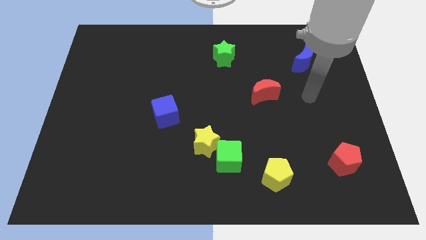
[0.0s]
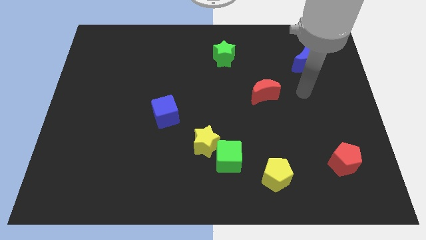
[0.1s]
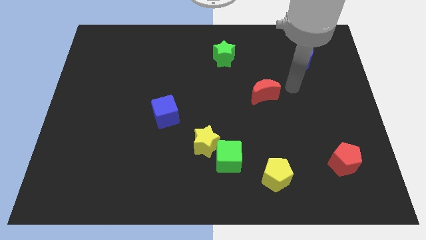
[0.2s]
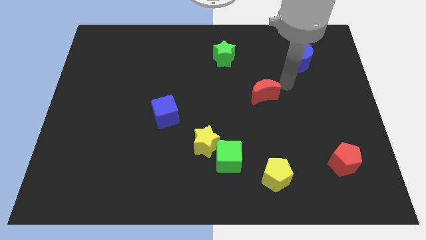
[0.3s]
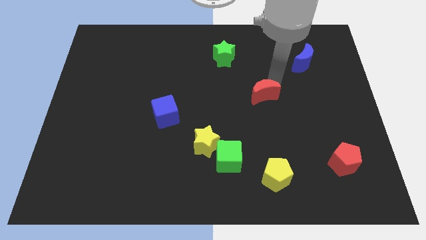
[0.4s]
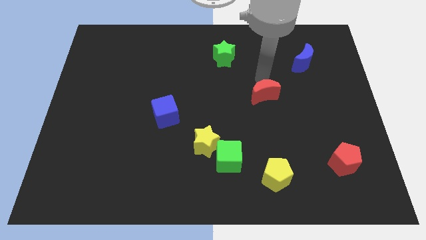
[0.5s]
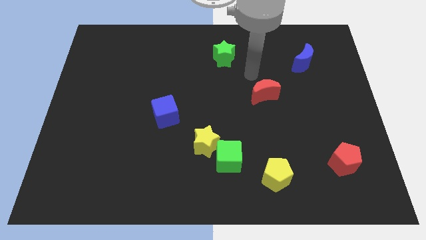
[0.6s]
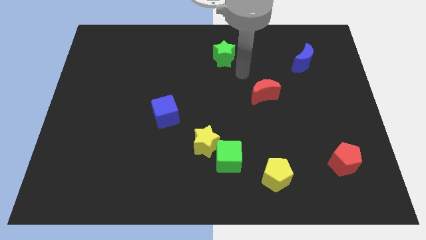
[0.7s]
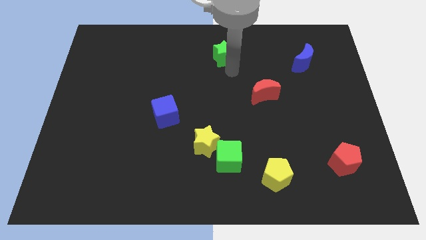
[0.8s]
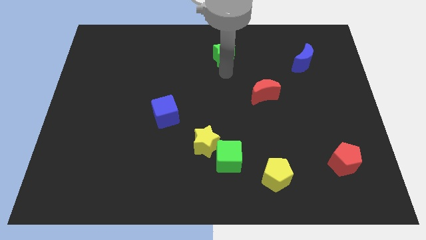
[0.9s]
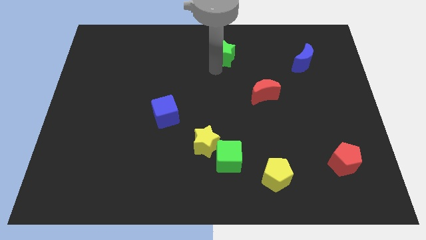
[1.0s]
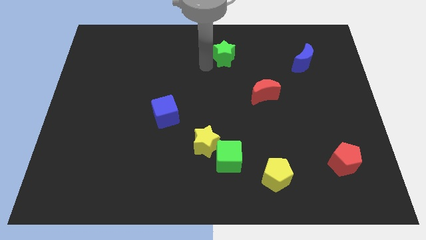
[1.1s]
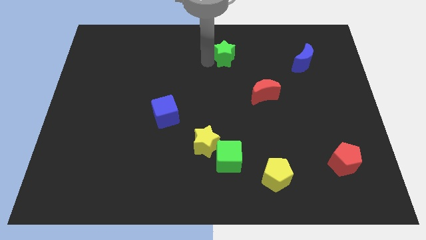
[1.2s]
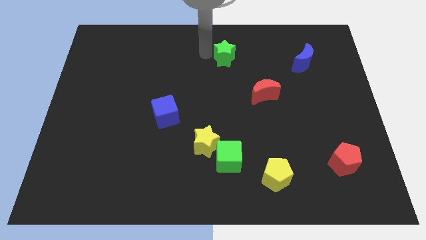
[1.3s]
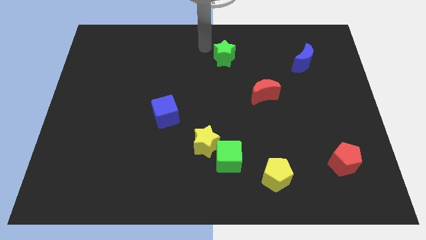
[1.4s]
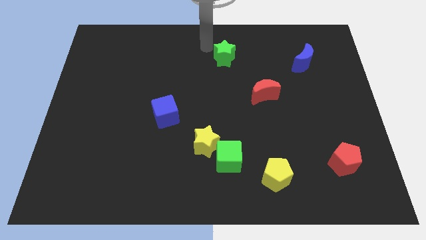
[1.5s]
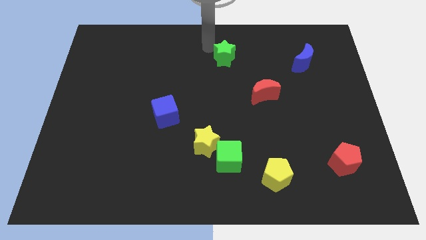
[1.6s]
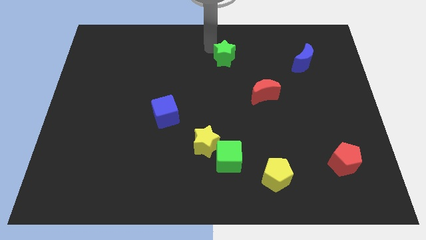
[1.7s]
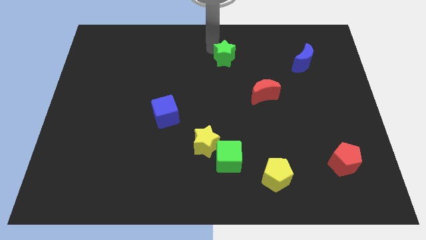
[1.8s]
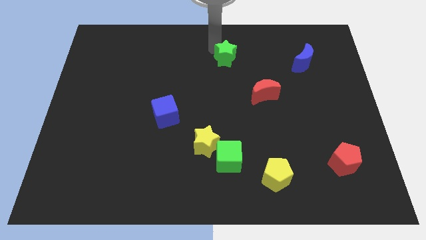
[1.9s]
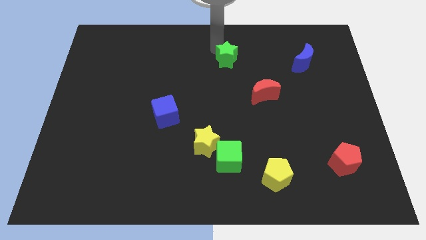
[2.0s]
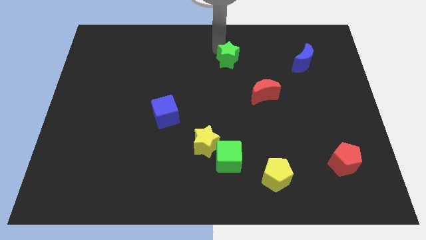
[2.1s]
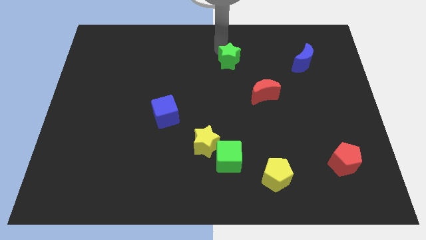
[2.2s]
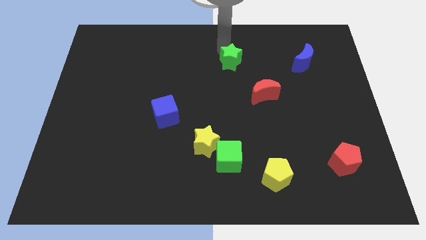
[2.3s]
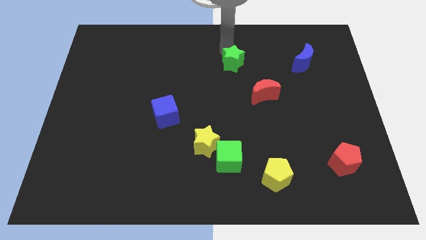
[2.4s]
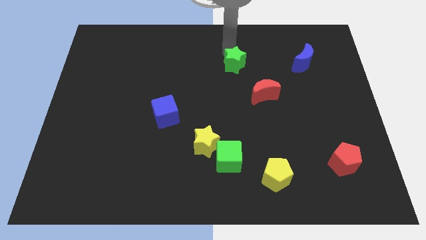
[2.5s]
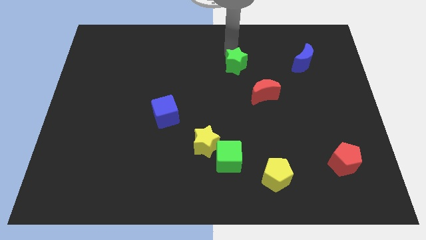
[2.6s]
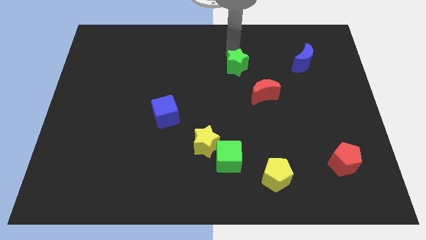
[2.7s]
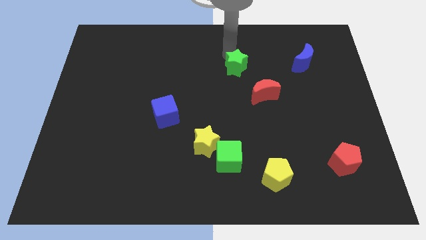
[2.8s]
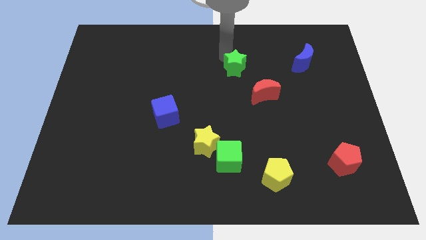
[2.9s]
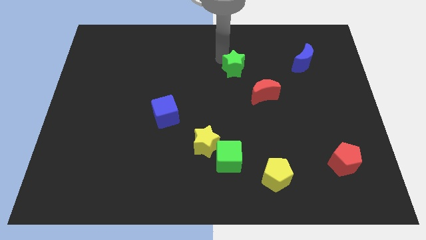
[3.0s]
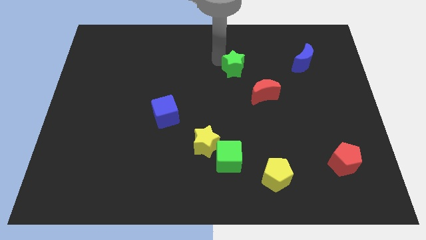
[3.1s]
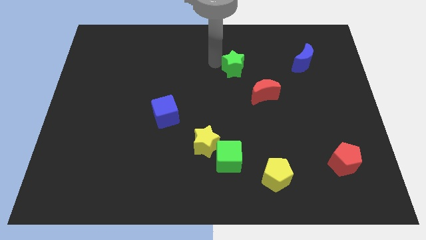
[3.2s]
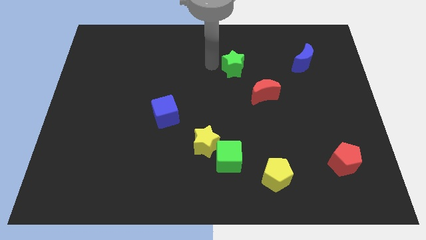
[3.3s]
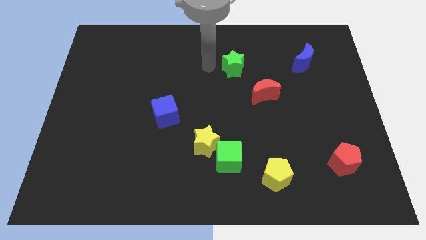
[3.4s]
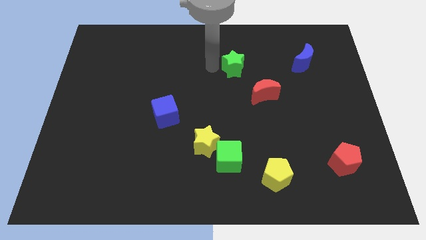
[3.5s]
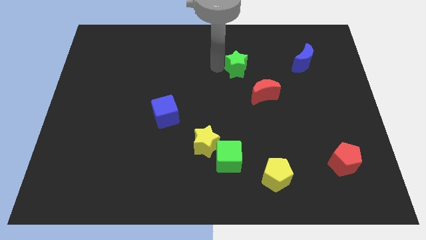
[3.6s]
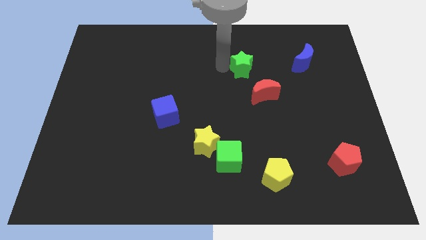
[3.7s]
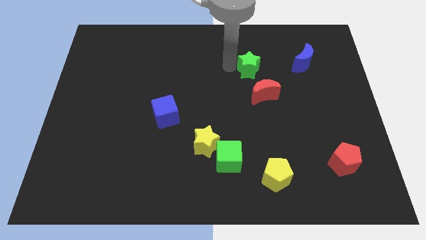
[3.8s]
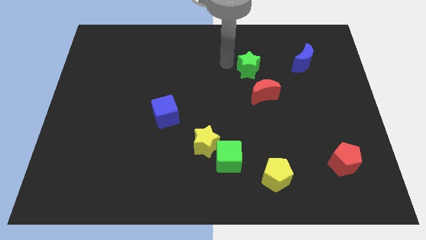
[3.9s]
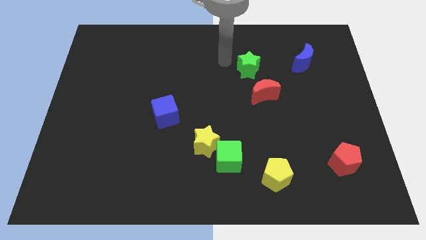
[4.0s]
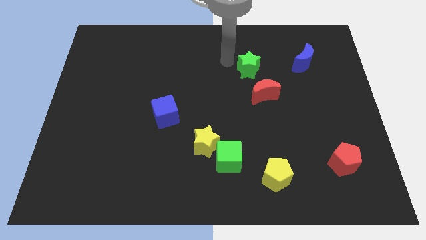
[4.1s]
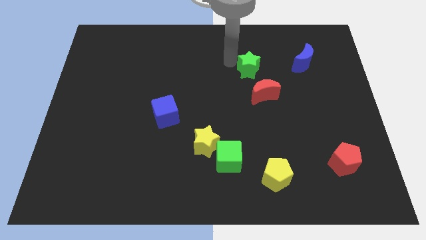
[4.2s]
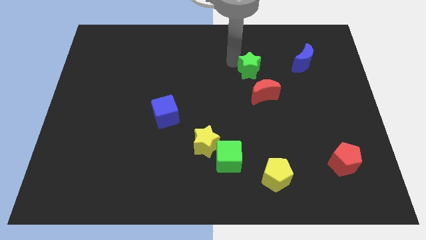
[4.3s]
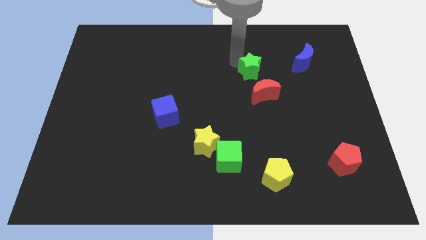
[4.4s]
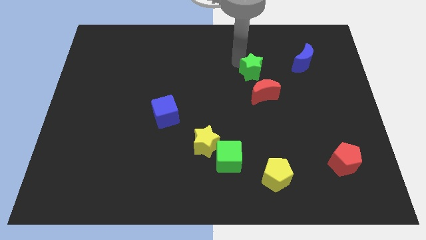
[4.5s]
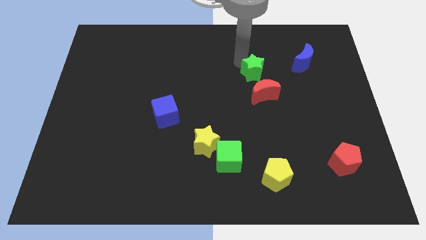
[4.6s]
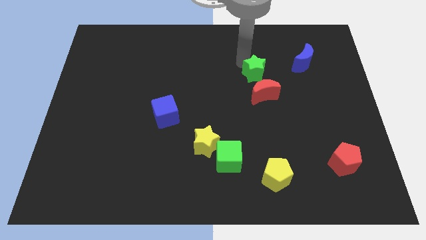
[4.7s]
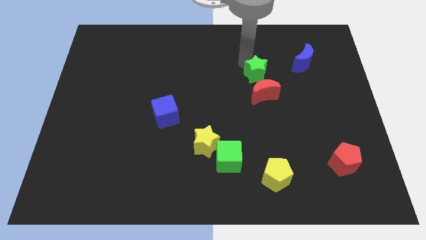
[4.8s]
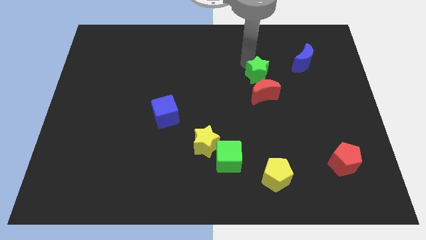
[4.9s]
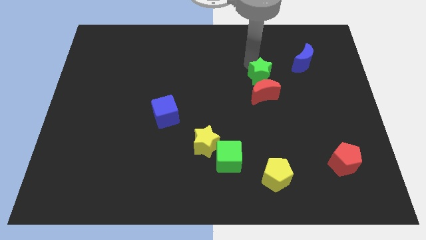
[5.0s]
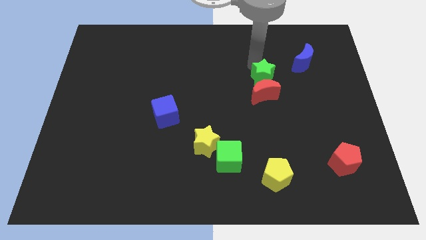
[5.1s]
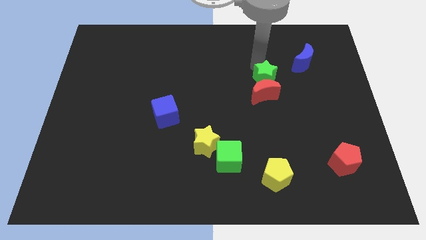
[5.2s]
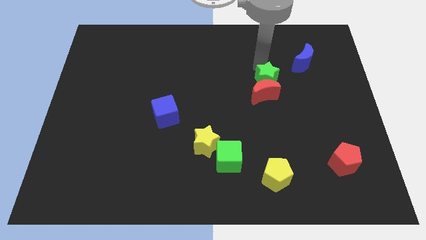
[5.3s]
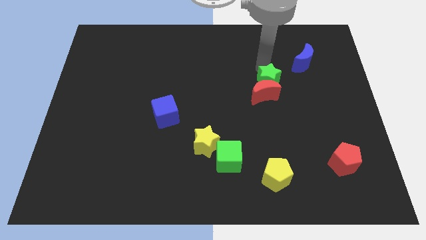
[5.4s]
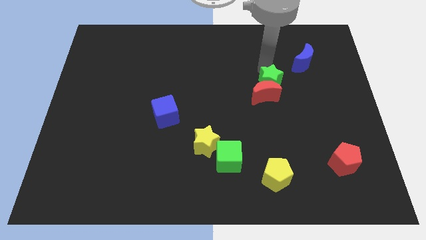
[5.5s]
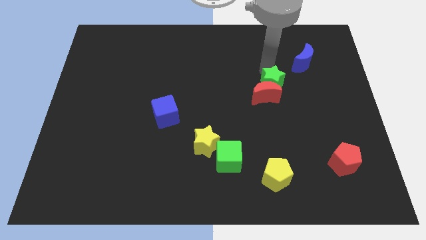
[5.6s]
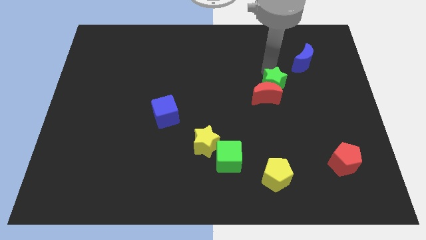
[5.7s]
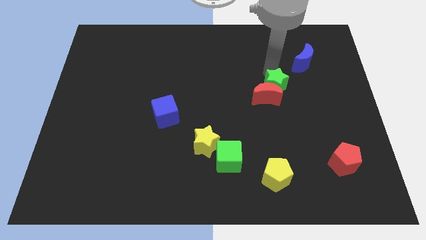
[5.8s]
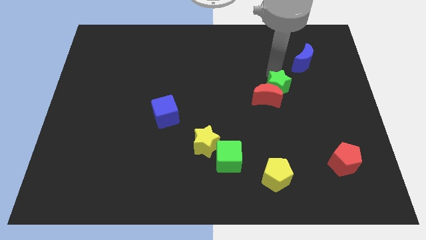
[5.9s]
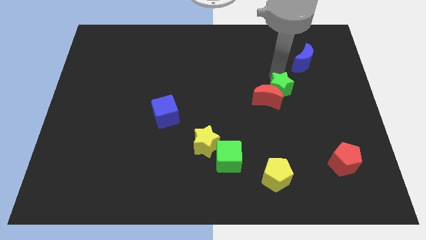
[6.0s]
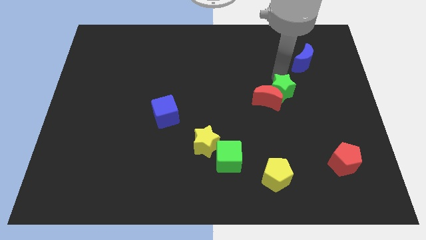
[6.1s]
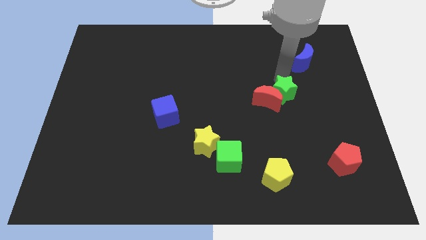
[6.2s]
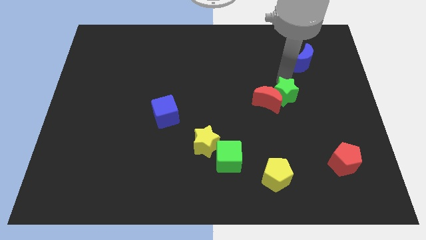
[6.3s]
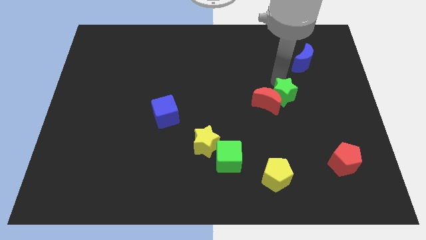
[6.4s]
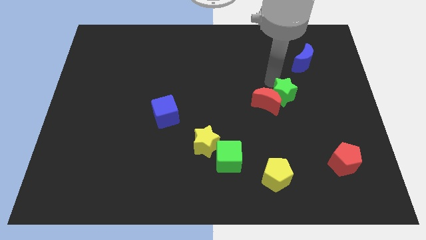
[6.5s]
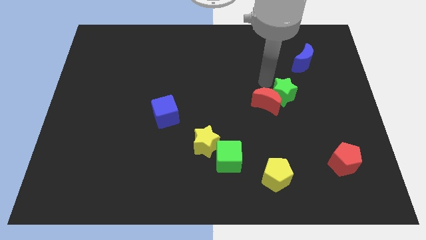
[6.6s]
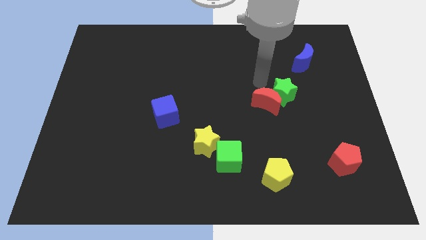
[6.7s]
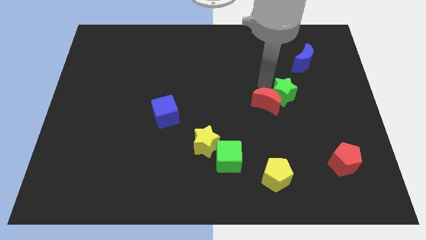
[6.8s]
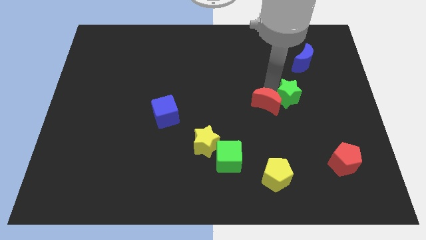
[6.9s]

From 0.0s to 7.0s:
push the green star downwards and right

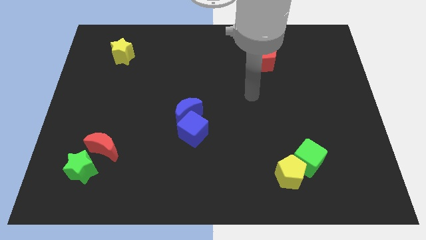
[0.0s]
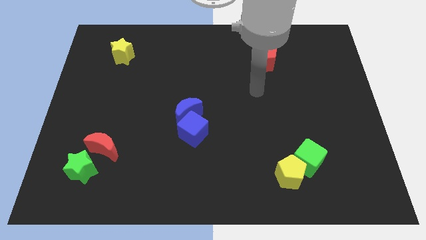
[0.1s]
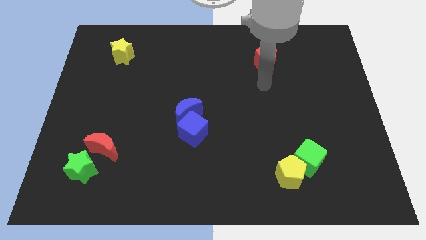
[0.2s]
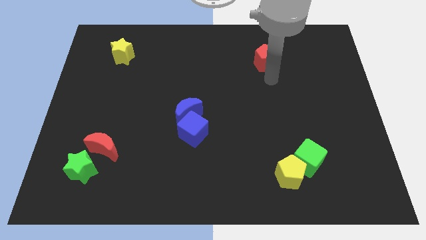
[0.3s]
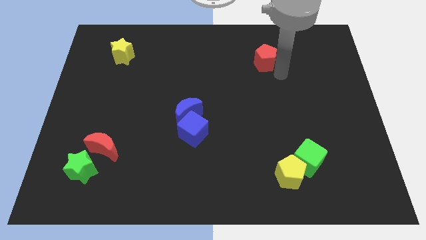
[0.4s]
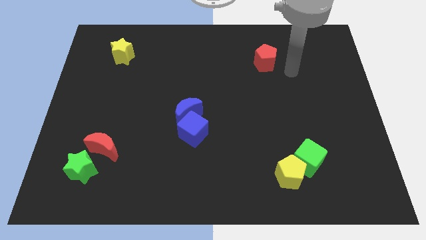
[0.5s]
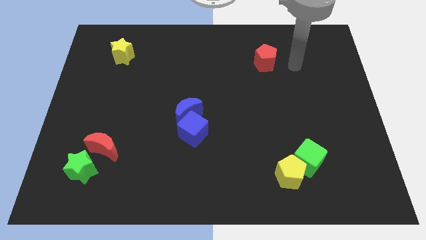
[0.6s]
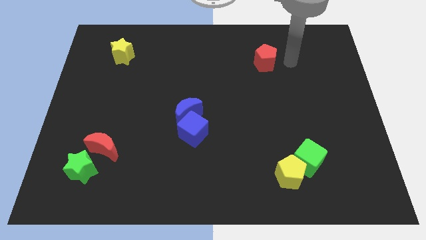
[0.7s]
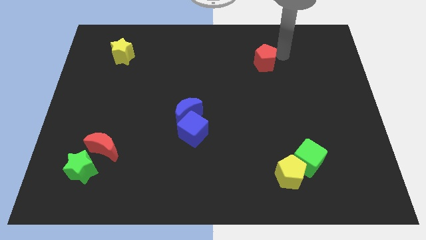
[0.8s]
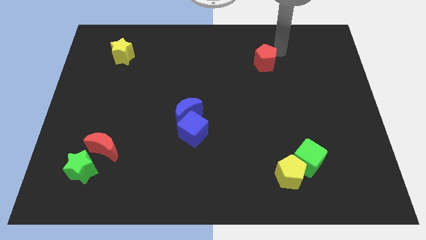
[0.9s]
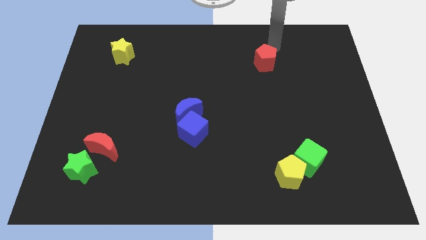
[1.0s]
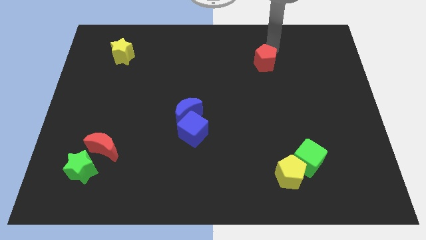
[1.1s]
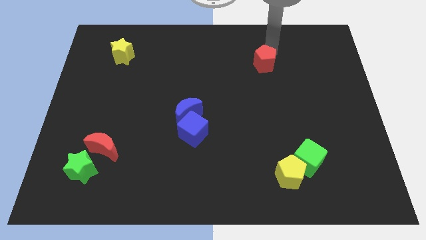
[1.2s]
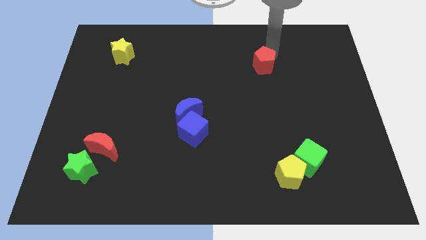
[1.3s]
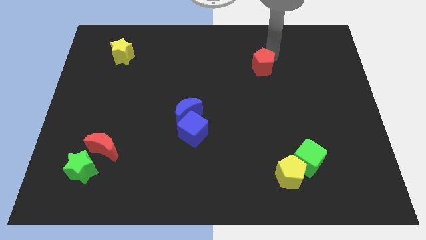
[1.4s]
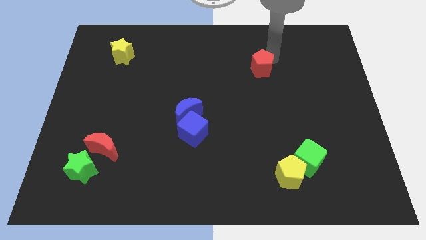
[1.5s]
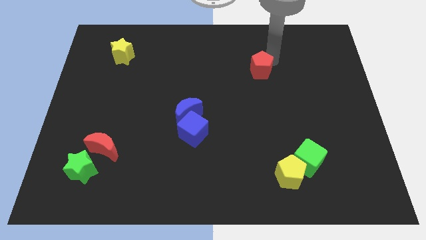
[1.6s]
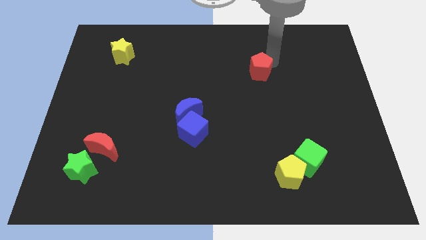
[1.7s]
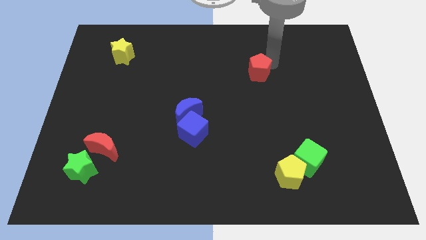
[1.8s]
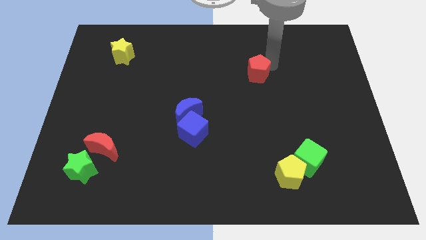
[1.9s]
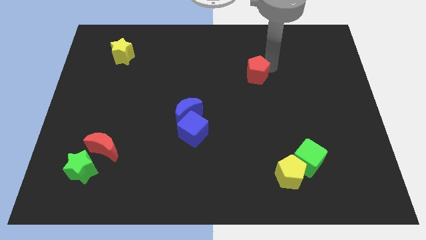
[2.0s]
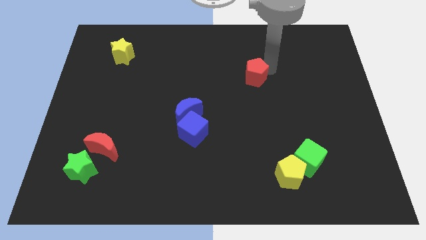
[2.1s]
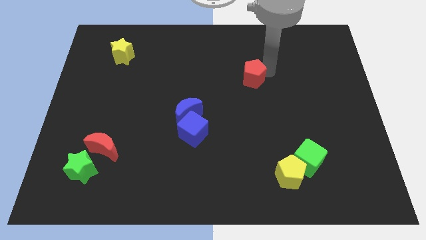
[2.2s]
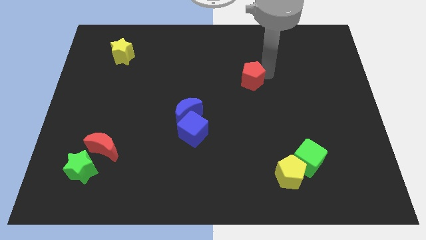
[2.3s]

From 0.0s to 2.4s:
slightly slide the red pentagon diagonally downwards and left
